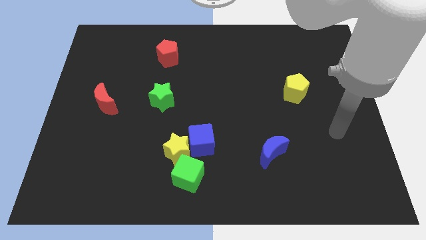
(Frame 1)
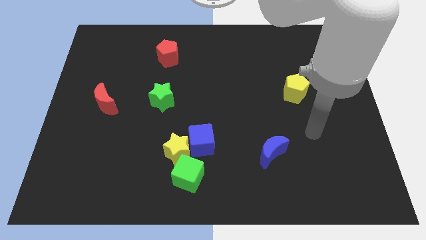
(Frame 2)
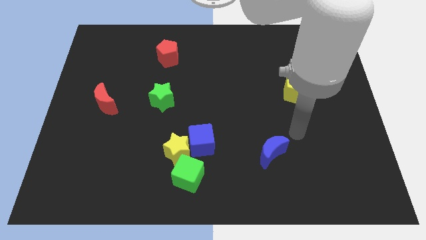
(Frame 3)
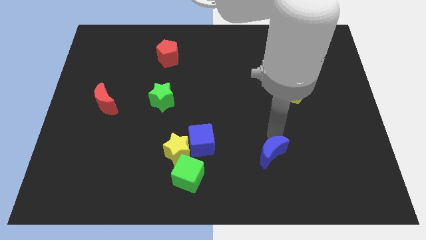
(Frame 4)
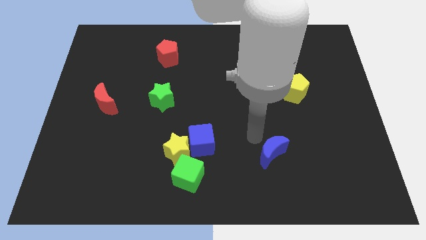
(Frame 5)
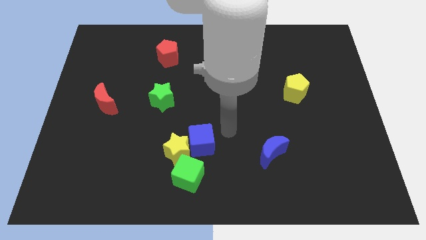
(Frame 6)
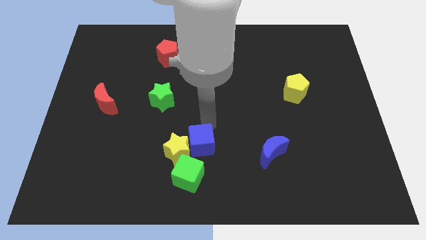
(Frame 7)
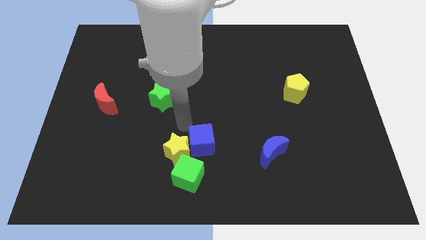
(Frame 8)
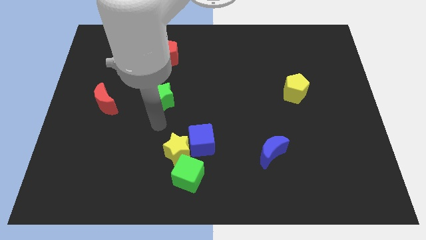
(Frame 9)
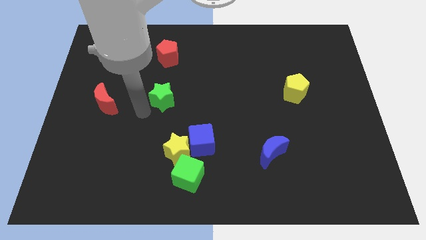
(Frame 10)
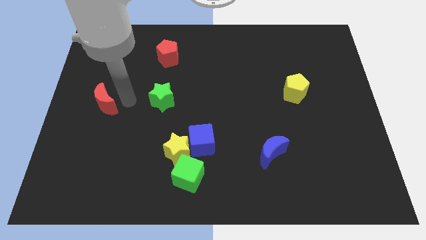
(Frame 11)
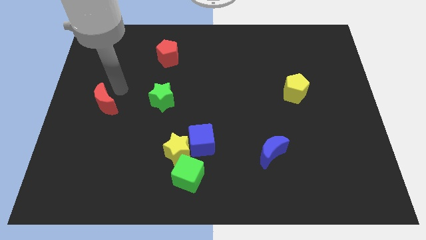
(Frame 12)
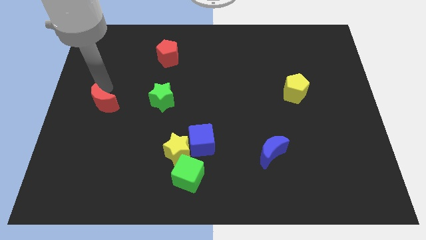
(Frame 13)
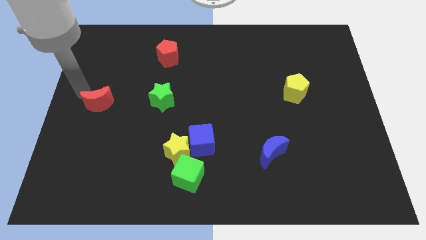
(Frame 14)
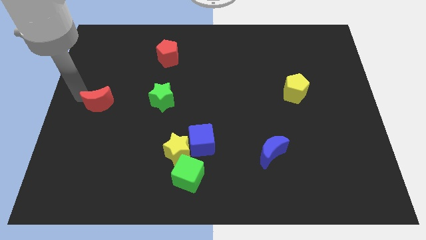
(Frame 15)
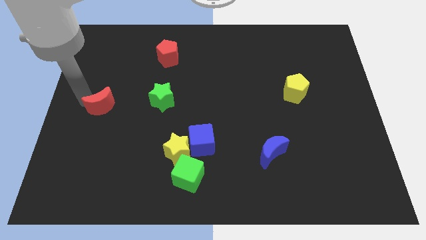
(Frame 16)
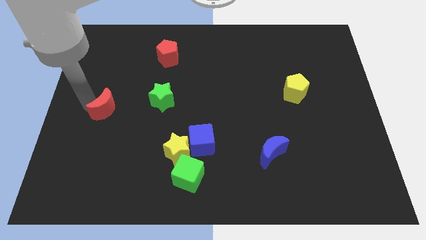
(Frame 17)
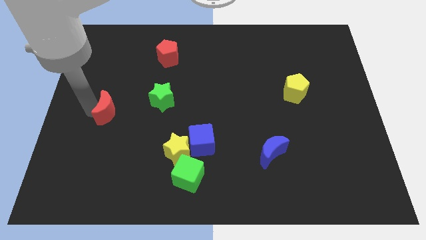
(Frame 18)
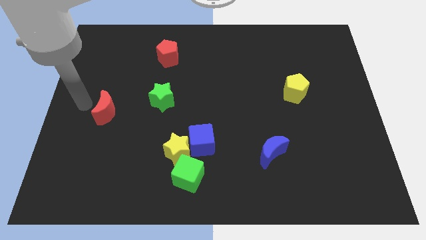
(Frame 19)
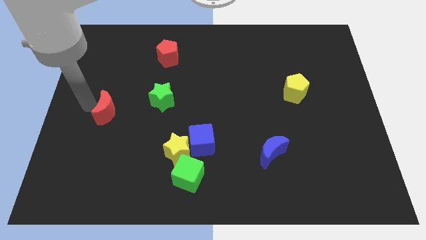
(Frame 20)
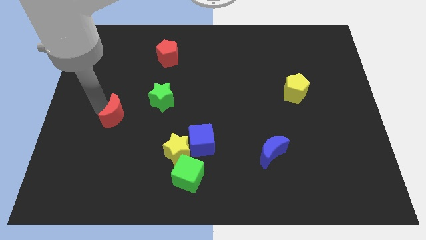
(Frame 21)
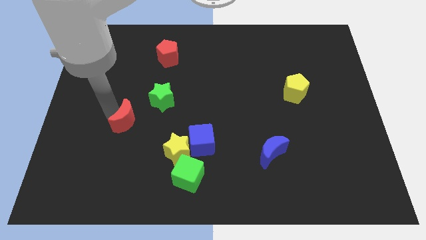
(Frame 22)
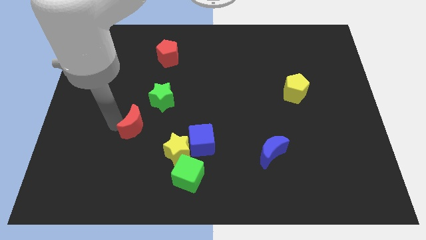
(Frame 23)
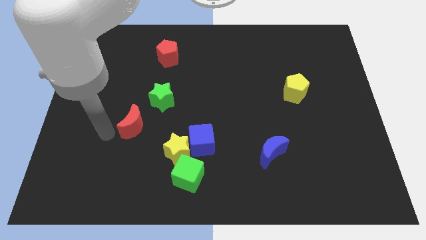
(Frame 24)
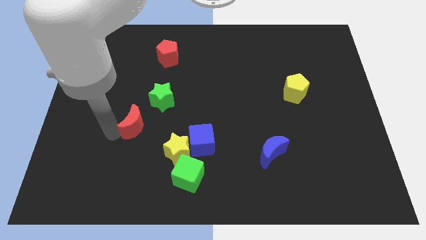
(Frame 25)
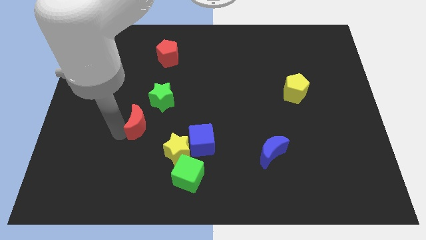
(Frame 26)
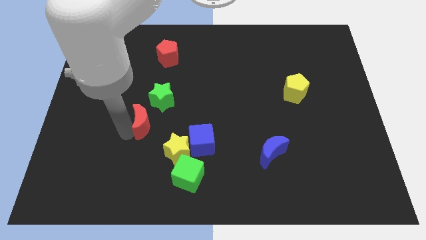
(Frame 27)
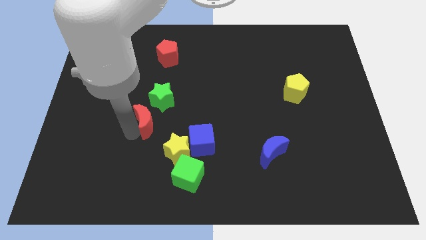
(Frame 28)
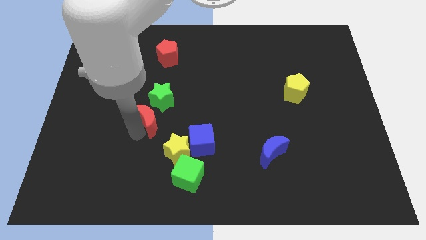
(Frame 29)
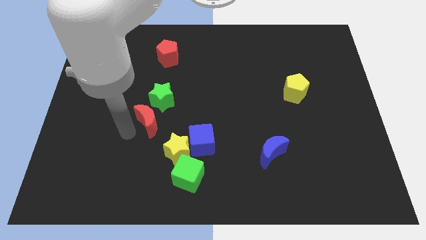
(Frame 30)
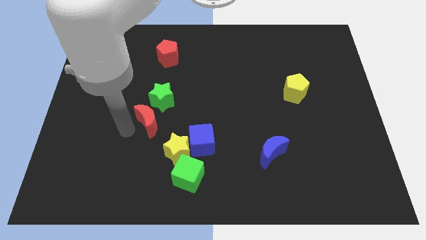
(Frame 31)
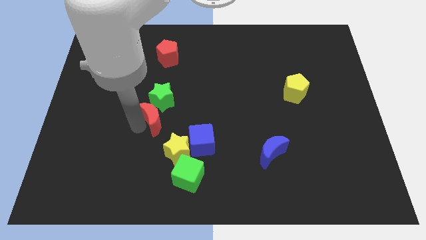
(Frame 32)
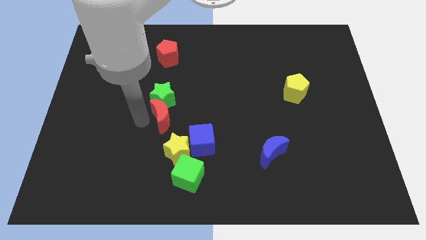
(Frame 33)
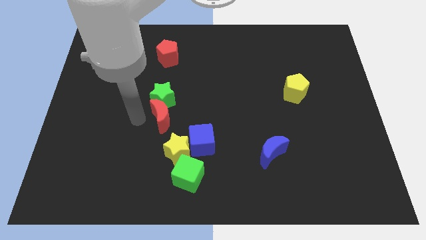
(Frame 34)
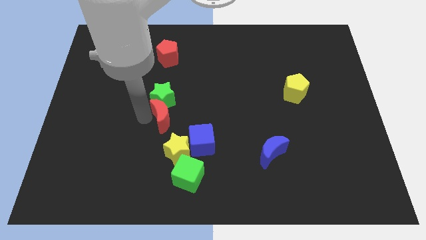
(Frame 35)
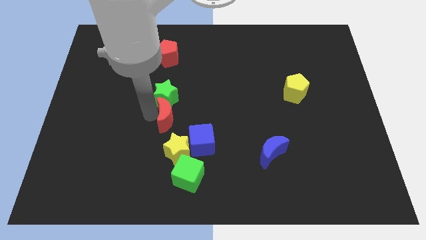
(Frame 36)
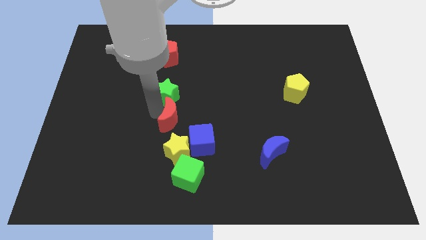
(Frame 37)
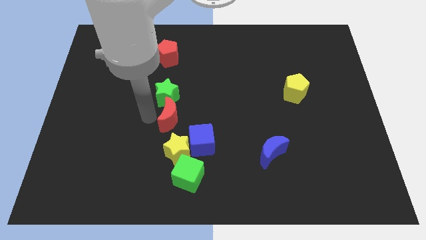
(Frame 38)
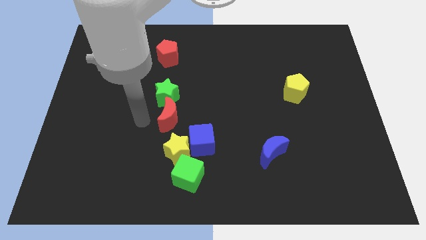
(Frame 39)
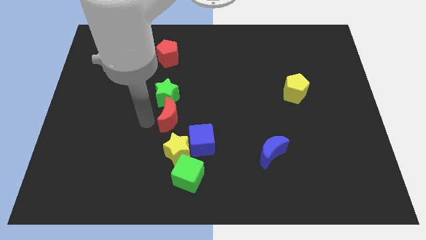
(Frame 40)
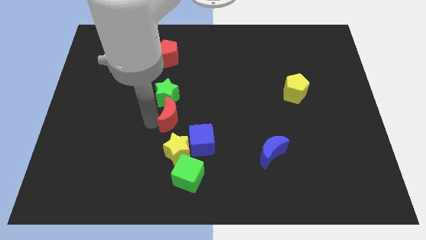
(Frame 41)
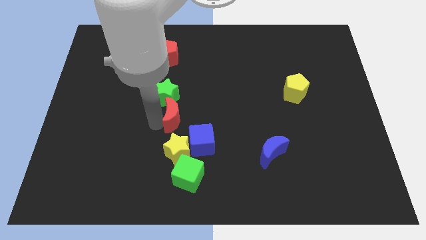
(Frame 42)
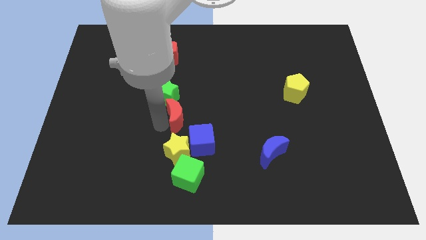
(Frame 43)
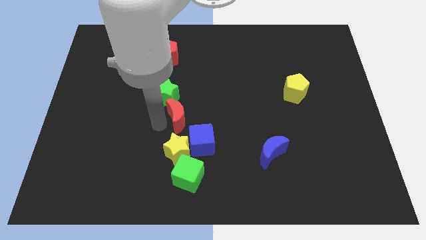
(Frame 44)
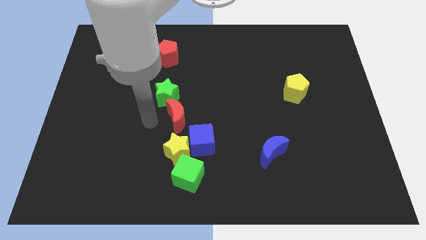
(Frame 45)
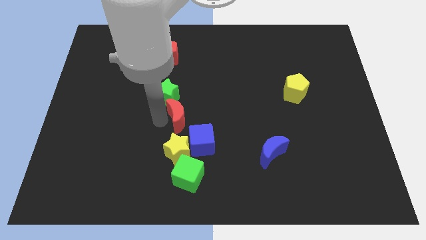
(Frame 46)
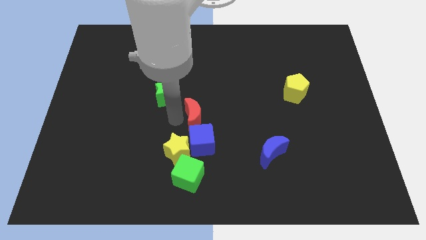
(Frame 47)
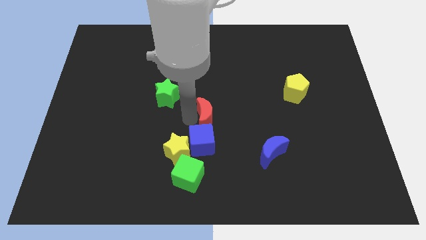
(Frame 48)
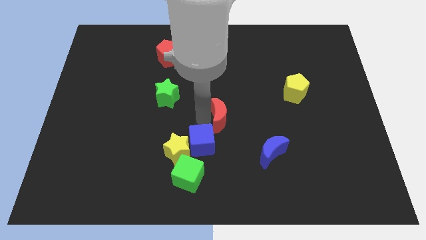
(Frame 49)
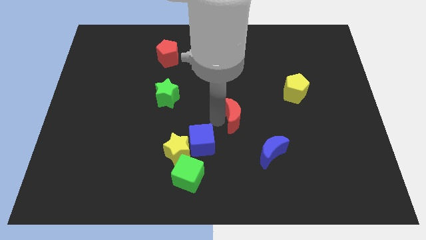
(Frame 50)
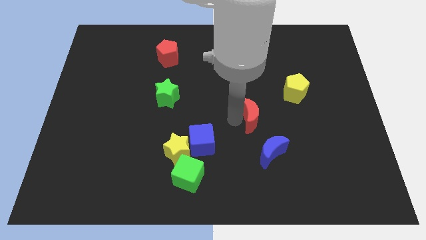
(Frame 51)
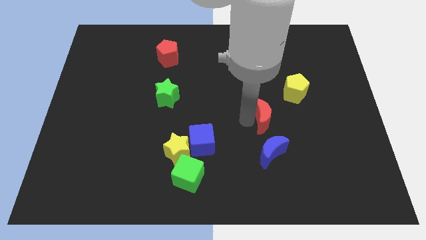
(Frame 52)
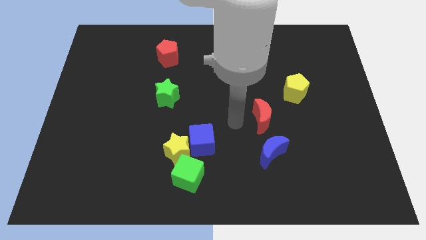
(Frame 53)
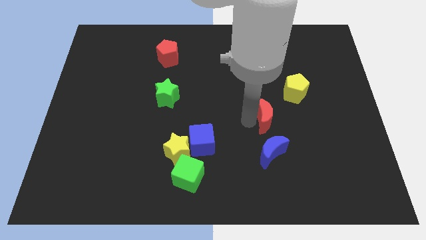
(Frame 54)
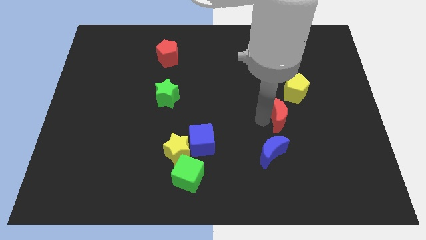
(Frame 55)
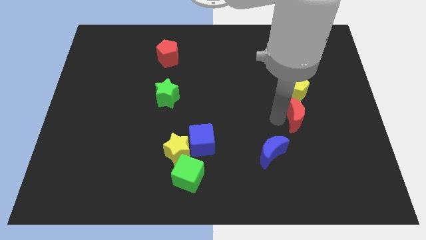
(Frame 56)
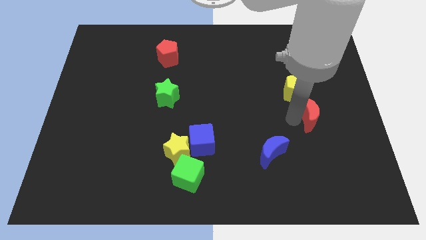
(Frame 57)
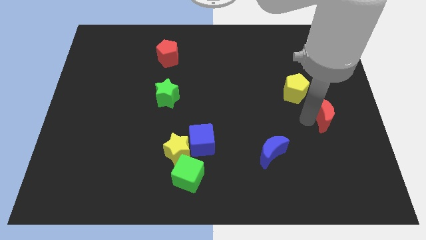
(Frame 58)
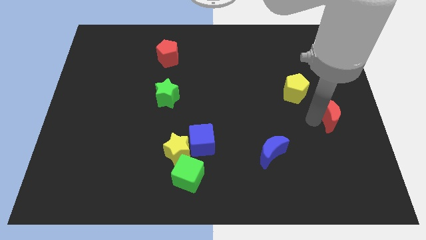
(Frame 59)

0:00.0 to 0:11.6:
put the red moon to the right side of the board

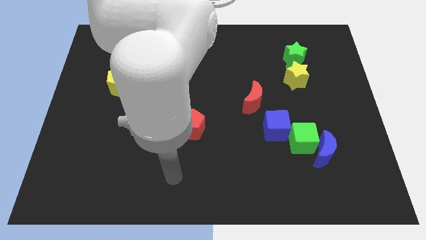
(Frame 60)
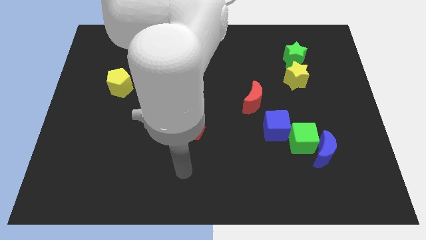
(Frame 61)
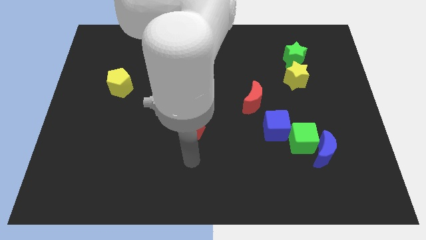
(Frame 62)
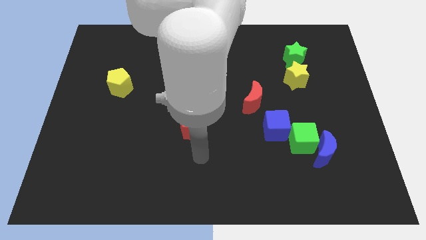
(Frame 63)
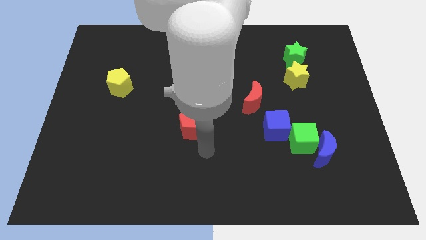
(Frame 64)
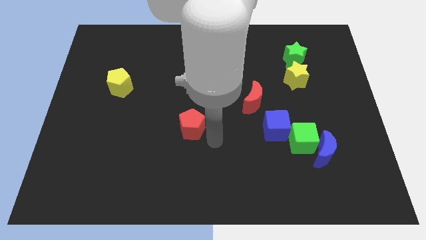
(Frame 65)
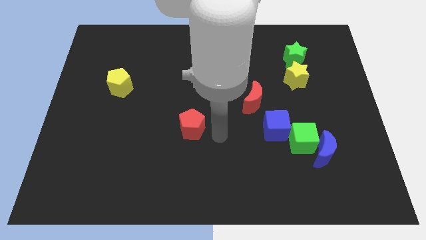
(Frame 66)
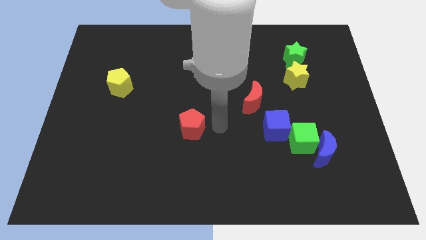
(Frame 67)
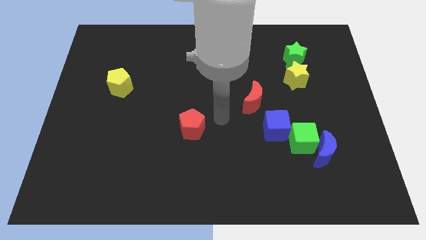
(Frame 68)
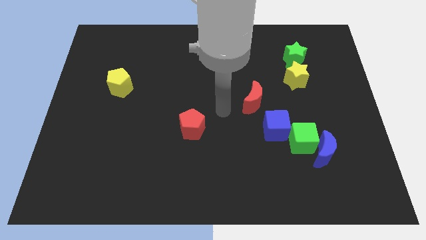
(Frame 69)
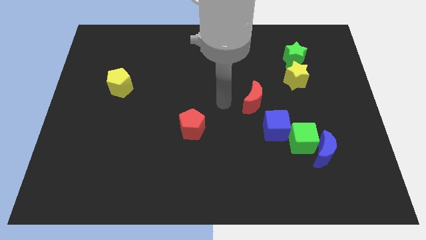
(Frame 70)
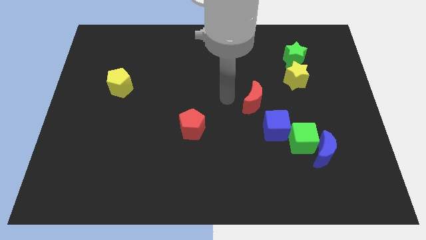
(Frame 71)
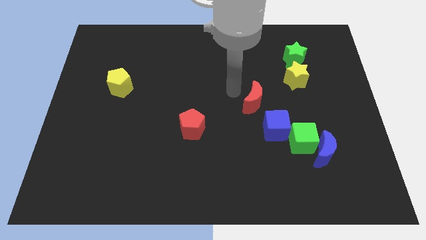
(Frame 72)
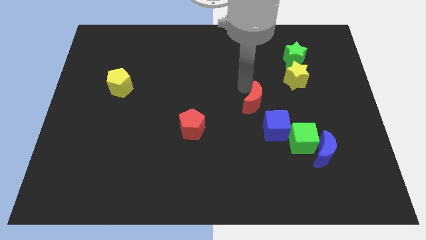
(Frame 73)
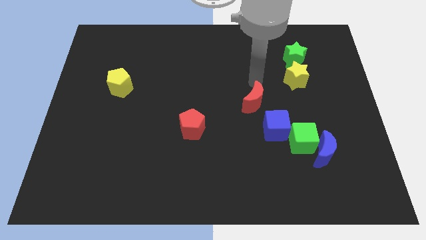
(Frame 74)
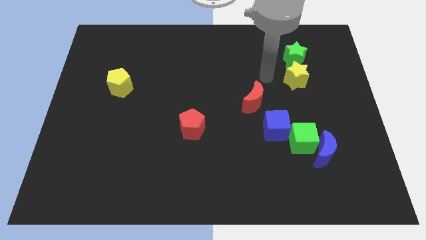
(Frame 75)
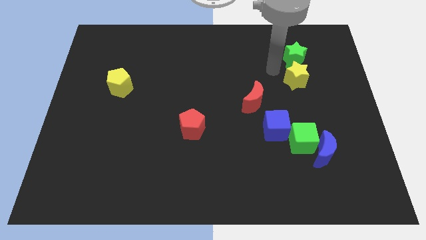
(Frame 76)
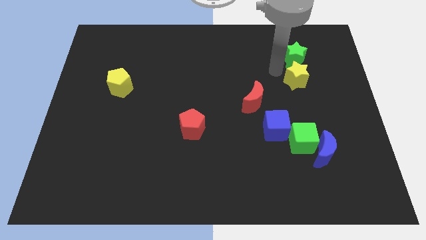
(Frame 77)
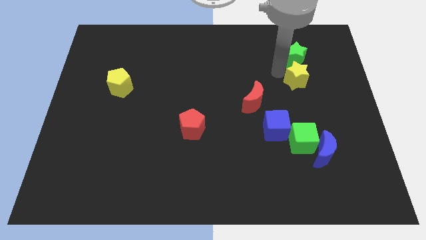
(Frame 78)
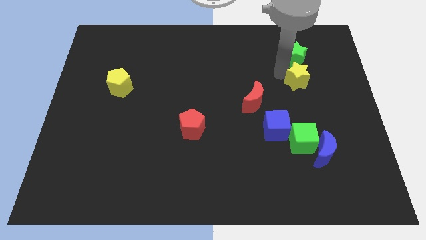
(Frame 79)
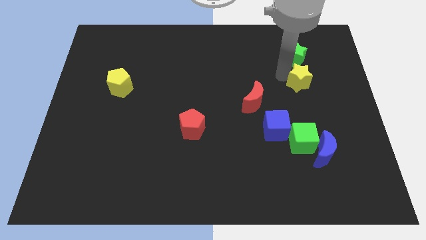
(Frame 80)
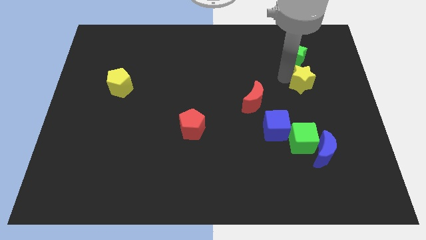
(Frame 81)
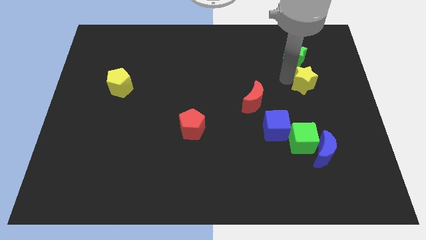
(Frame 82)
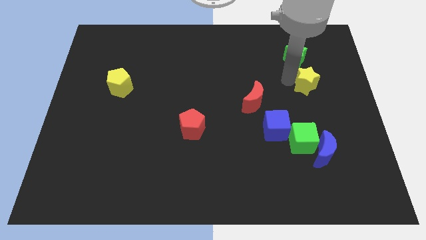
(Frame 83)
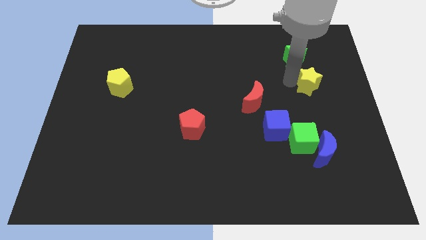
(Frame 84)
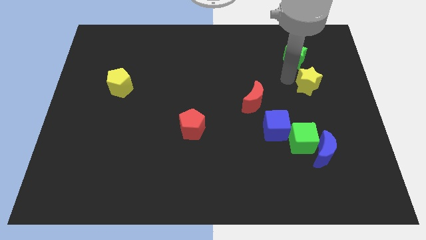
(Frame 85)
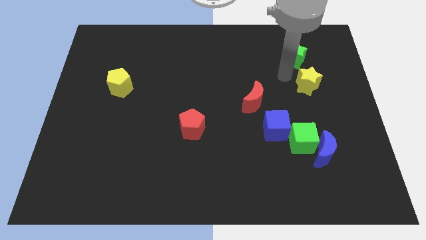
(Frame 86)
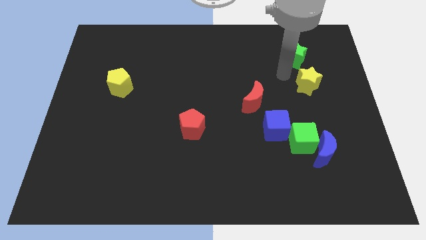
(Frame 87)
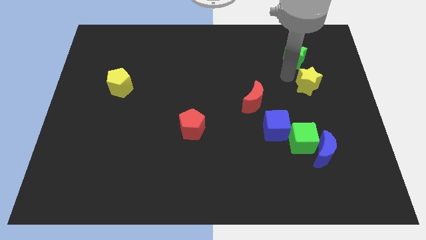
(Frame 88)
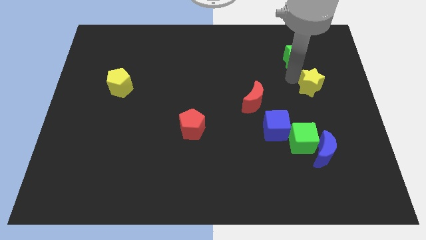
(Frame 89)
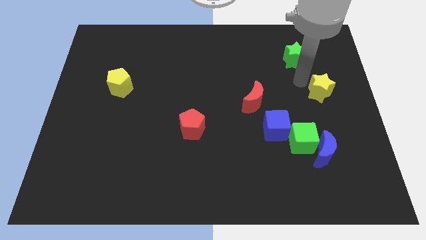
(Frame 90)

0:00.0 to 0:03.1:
move the yellow star to the center right
